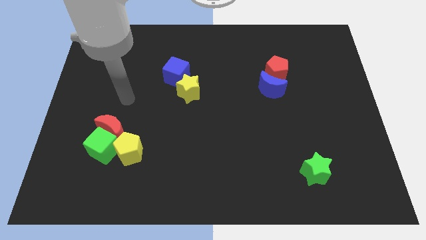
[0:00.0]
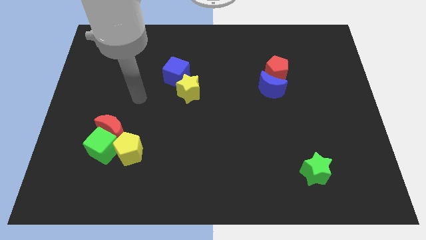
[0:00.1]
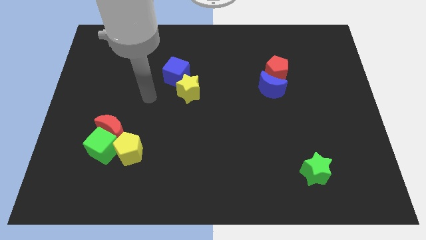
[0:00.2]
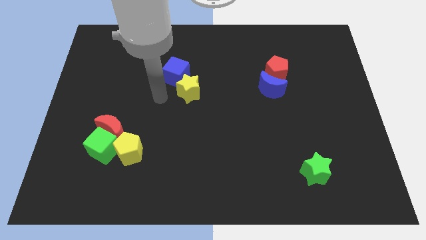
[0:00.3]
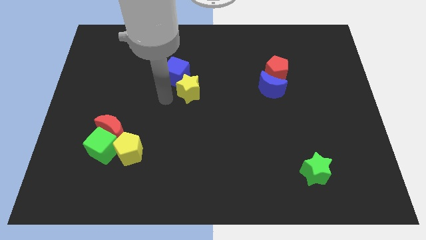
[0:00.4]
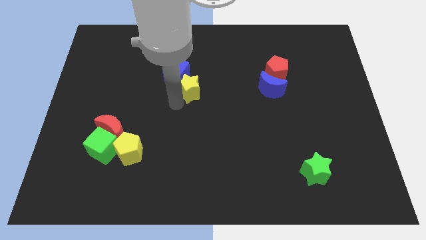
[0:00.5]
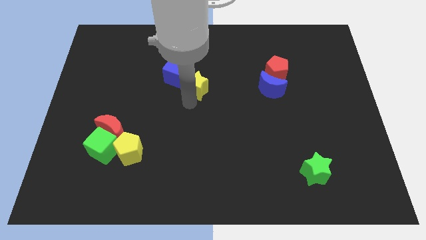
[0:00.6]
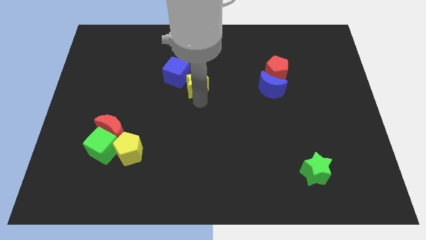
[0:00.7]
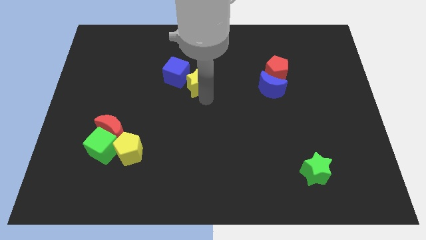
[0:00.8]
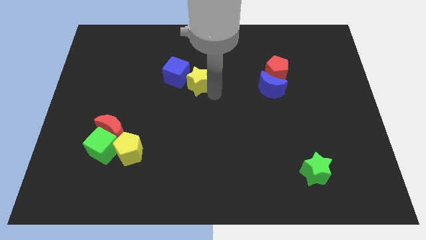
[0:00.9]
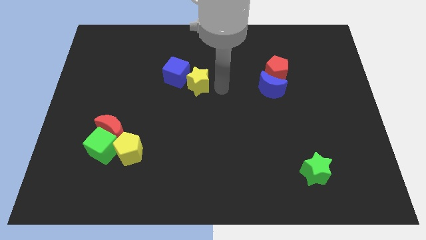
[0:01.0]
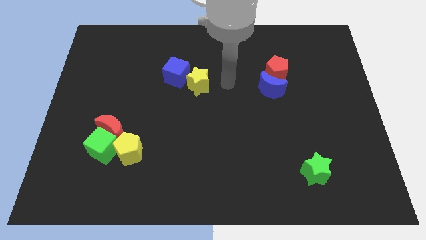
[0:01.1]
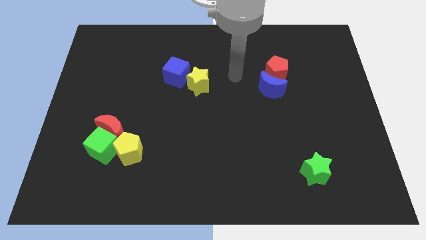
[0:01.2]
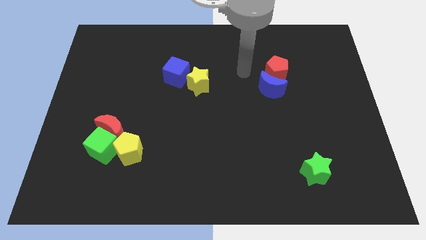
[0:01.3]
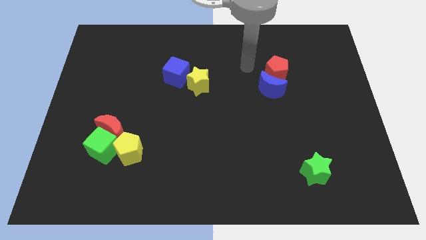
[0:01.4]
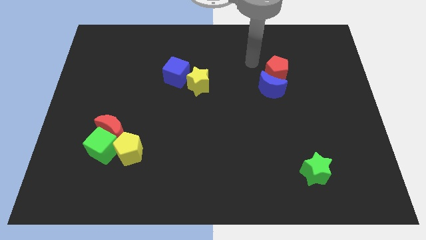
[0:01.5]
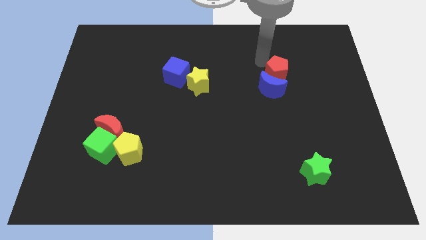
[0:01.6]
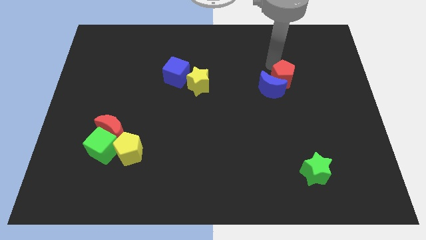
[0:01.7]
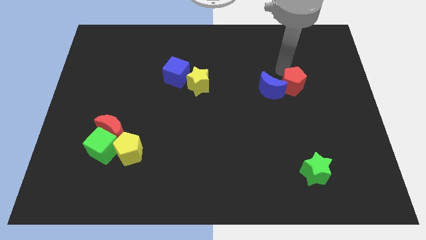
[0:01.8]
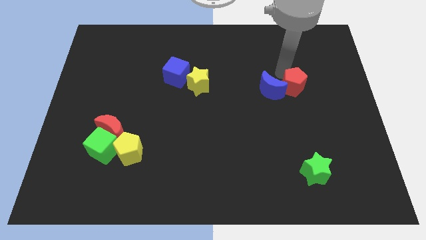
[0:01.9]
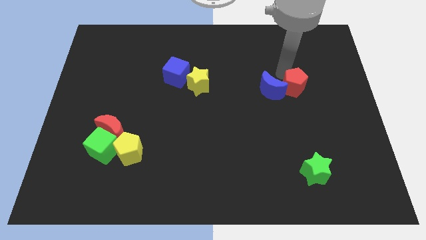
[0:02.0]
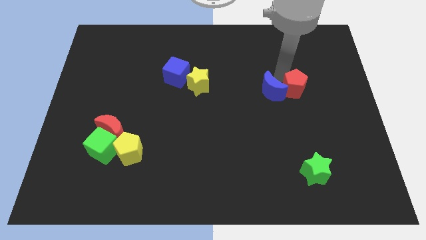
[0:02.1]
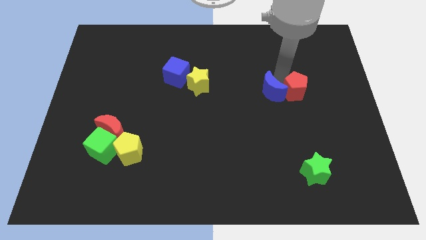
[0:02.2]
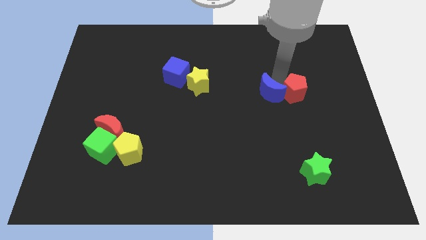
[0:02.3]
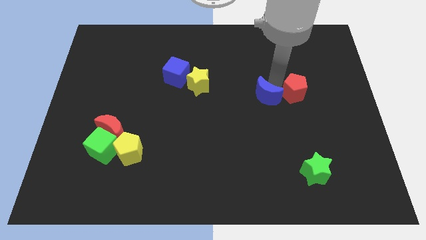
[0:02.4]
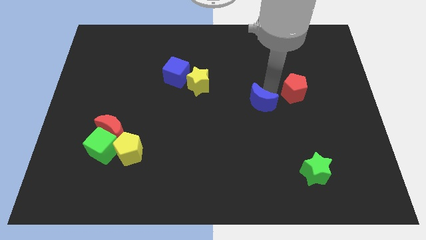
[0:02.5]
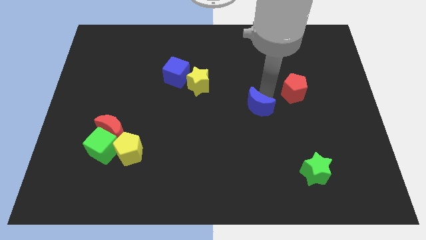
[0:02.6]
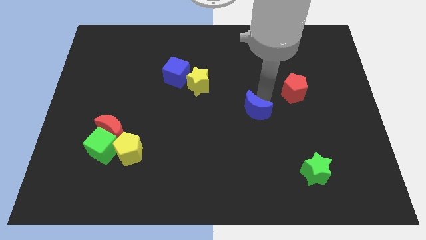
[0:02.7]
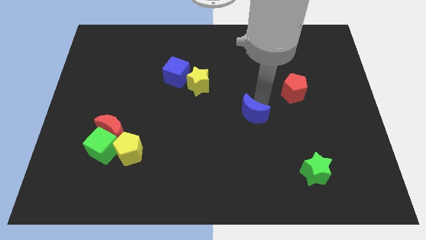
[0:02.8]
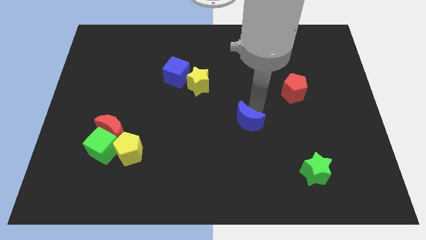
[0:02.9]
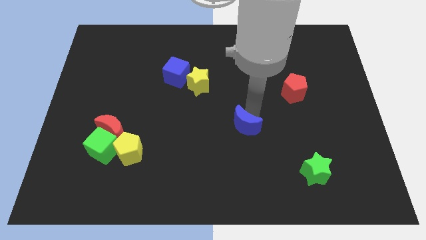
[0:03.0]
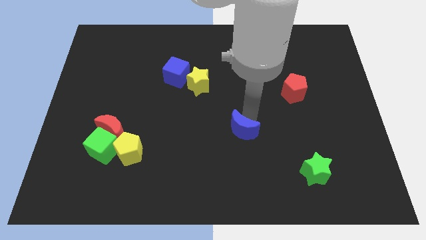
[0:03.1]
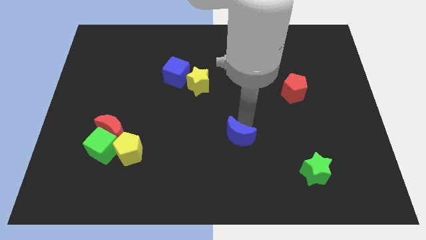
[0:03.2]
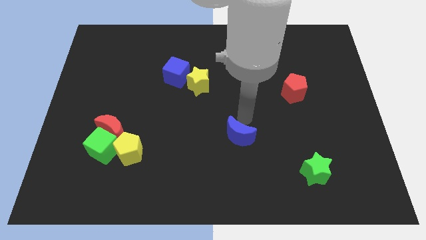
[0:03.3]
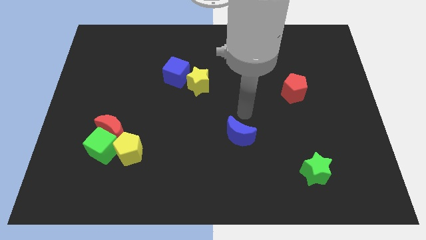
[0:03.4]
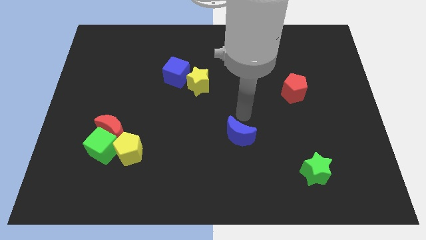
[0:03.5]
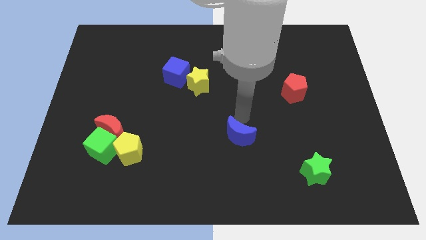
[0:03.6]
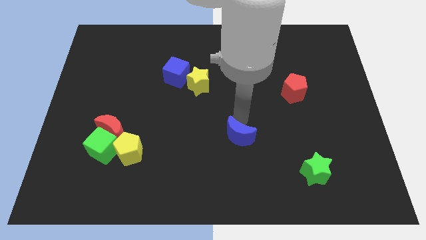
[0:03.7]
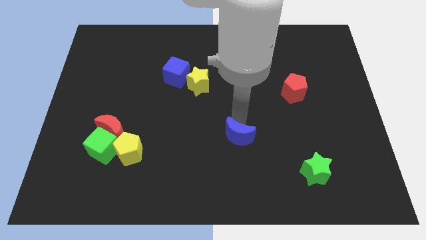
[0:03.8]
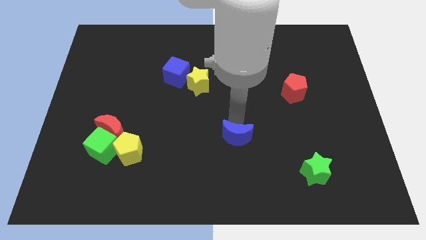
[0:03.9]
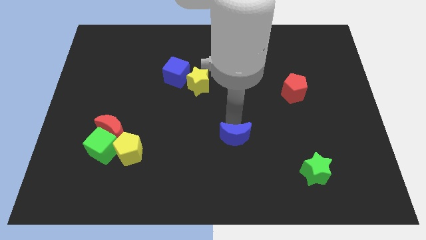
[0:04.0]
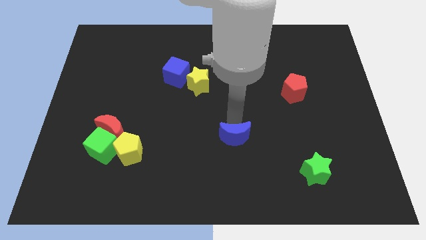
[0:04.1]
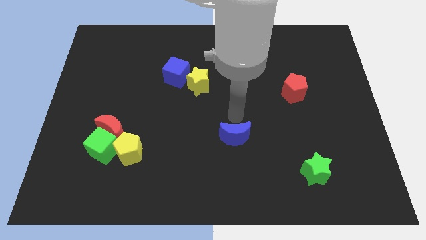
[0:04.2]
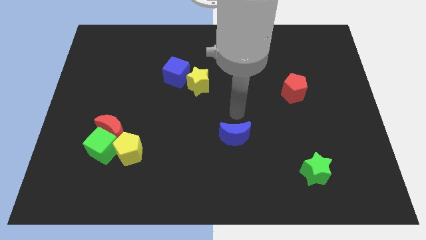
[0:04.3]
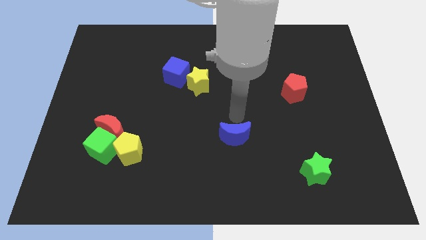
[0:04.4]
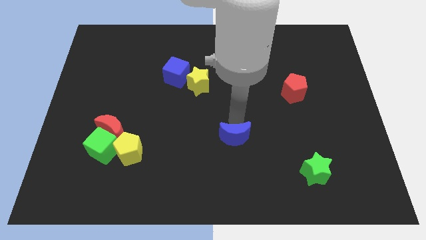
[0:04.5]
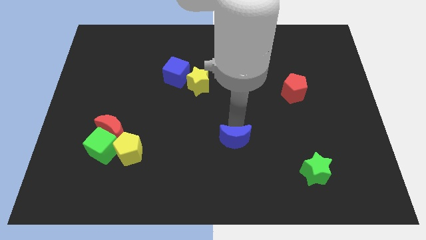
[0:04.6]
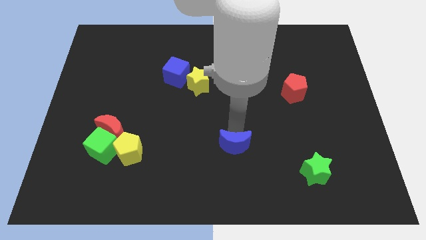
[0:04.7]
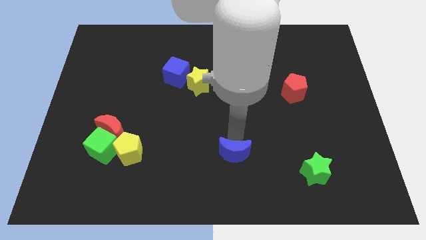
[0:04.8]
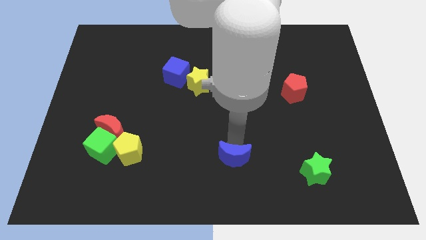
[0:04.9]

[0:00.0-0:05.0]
slide the blue moon to the bottom side

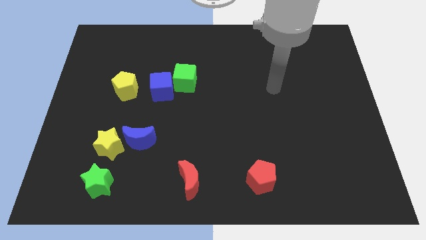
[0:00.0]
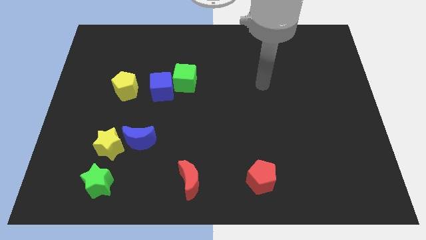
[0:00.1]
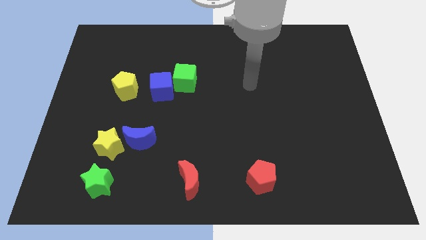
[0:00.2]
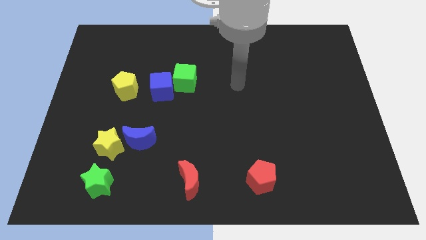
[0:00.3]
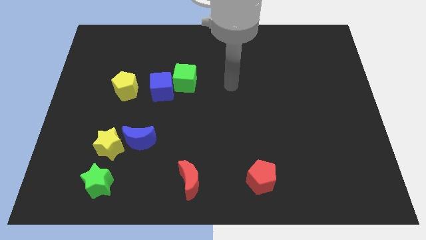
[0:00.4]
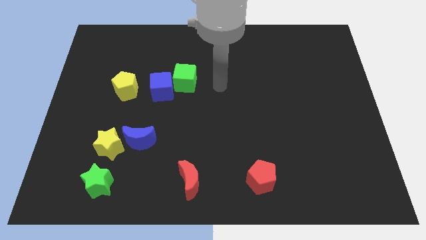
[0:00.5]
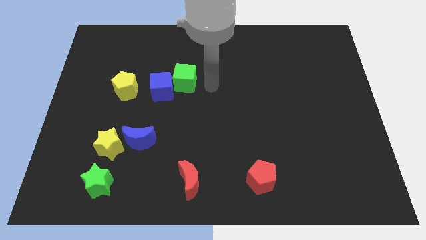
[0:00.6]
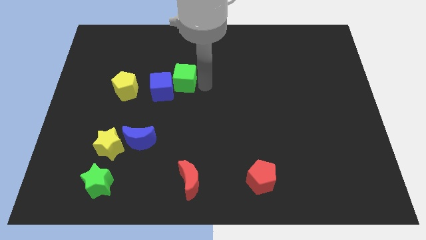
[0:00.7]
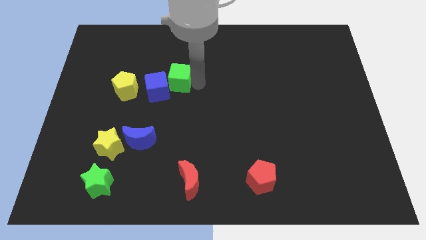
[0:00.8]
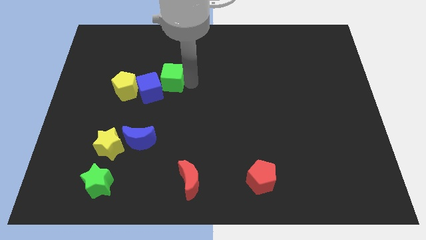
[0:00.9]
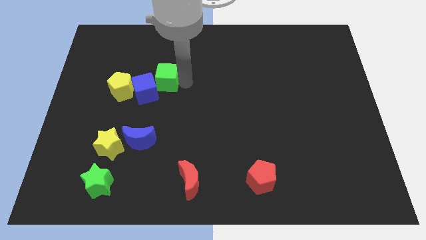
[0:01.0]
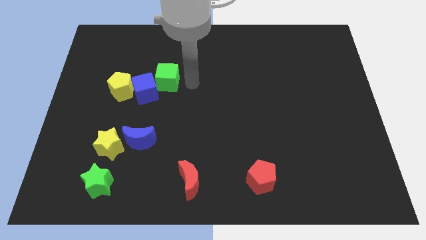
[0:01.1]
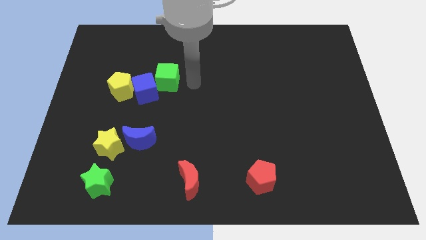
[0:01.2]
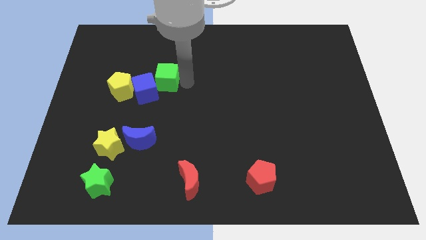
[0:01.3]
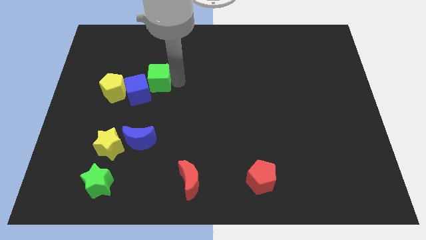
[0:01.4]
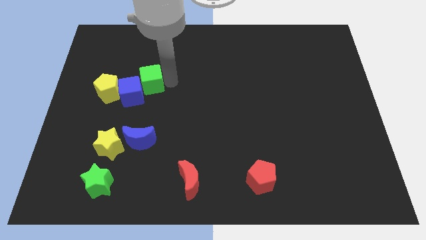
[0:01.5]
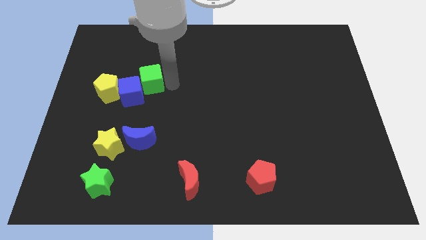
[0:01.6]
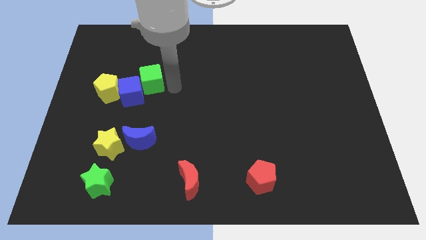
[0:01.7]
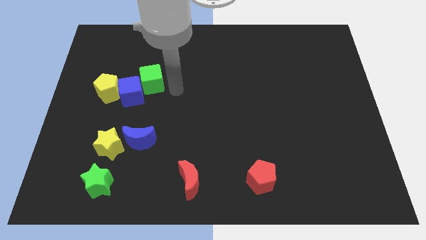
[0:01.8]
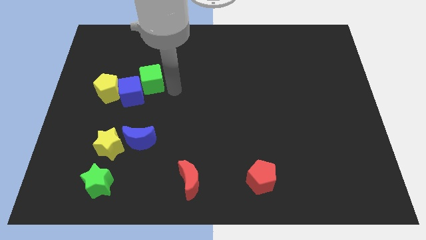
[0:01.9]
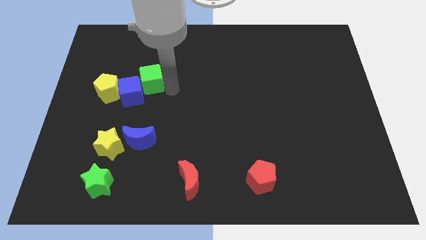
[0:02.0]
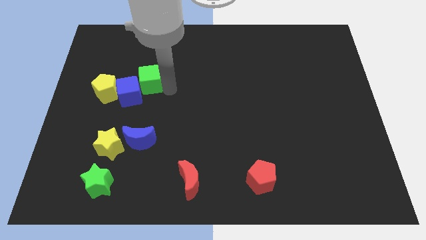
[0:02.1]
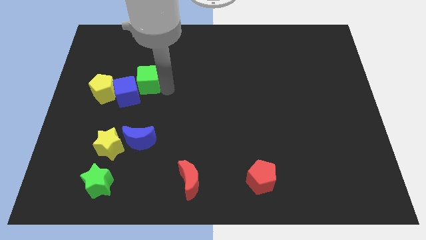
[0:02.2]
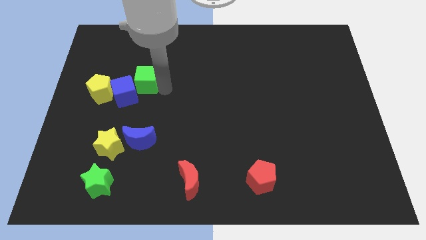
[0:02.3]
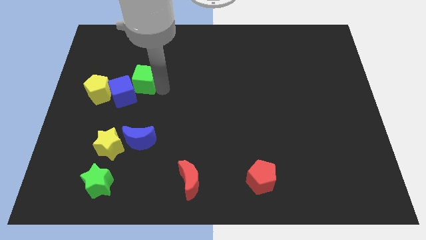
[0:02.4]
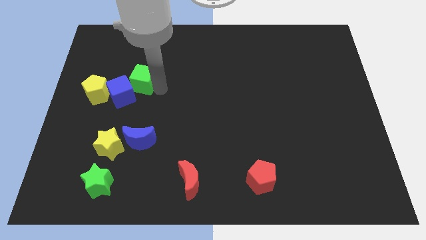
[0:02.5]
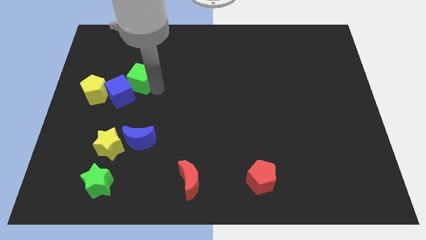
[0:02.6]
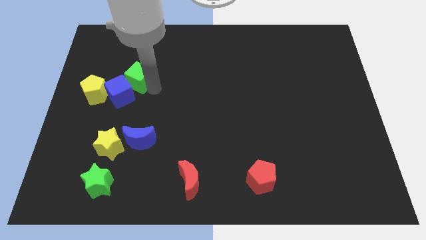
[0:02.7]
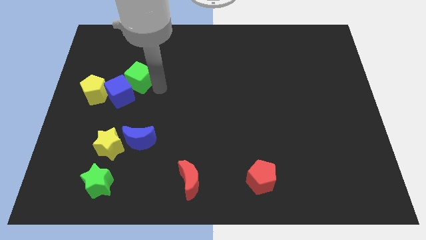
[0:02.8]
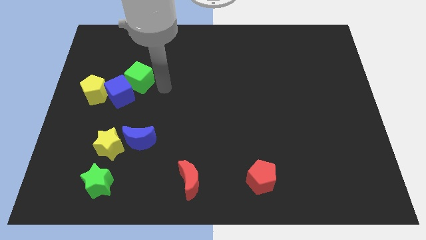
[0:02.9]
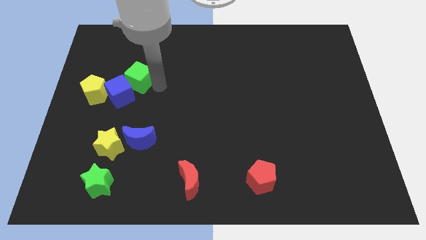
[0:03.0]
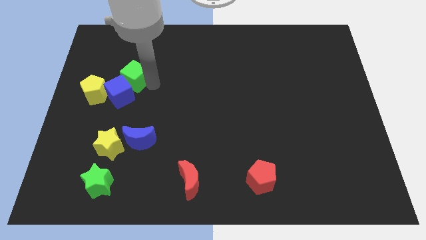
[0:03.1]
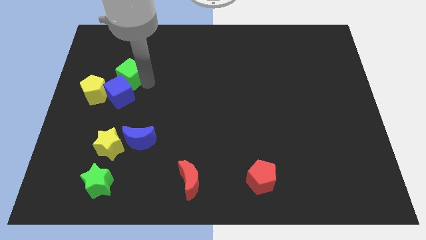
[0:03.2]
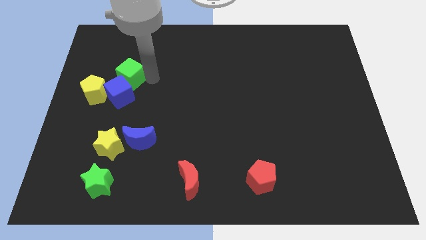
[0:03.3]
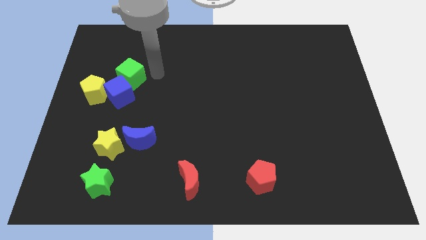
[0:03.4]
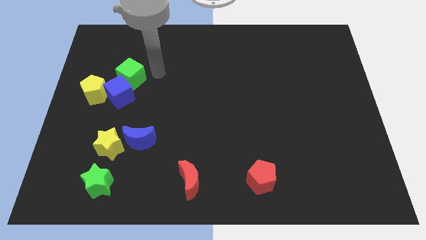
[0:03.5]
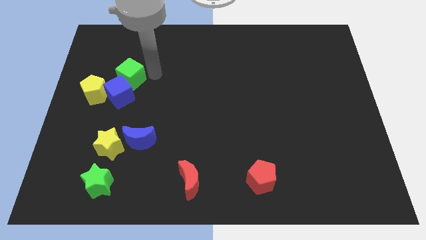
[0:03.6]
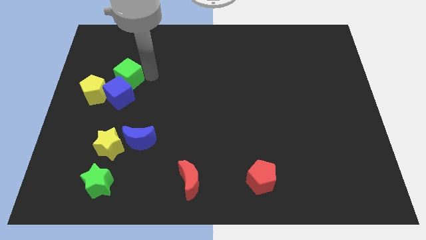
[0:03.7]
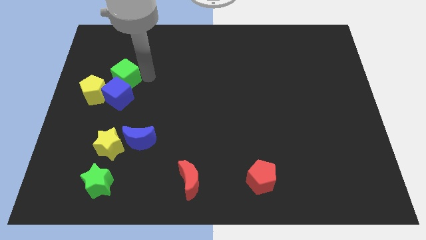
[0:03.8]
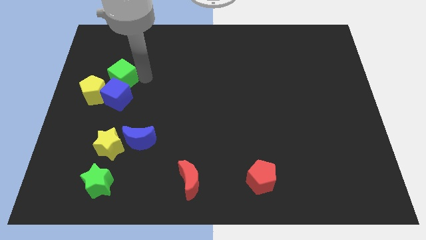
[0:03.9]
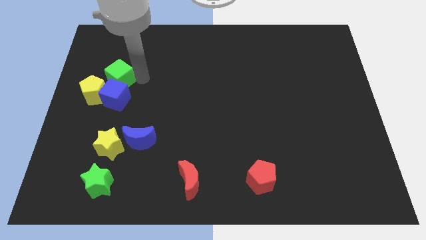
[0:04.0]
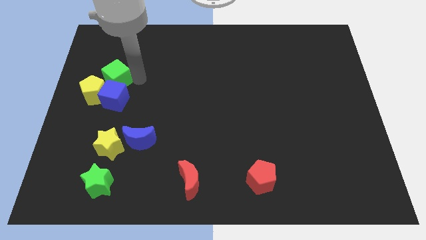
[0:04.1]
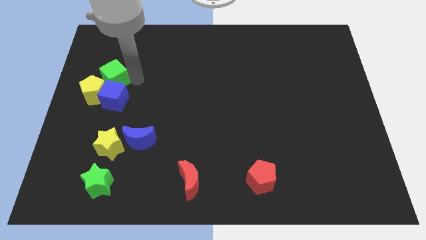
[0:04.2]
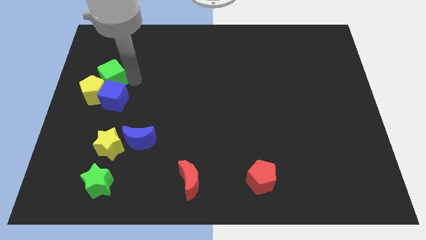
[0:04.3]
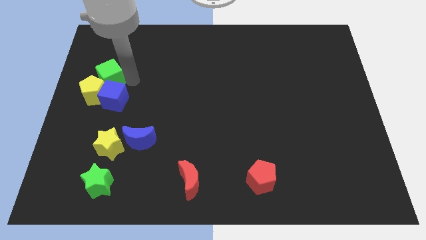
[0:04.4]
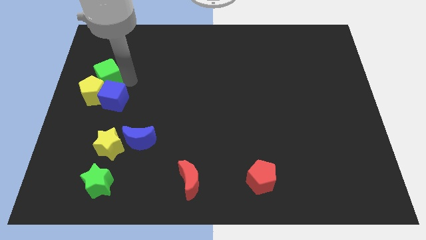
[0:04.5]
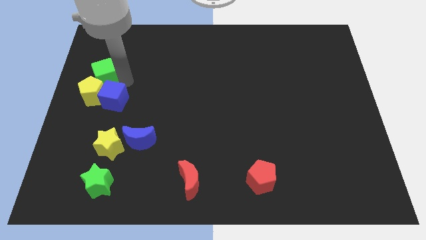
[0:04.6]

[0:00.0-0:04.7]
put the green cube to the left side of the board
